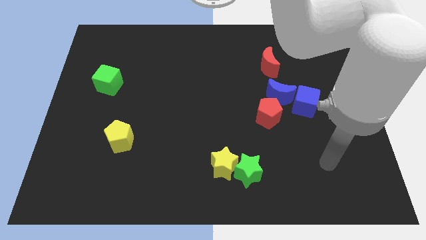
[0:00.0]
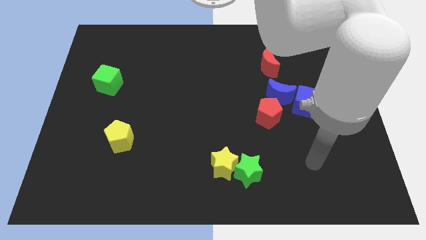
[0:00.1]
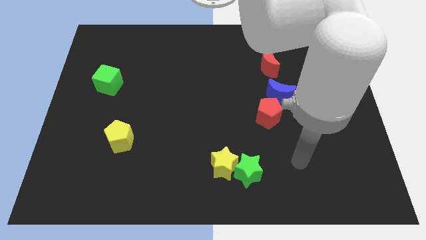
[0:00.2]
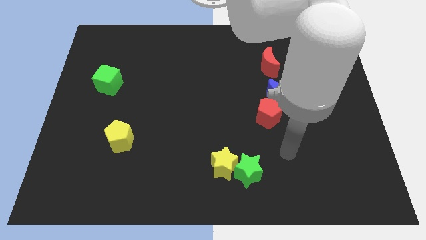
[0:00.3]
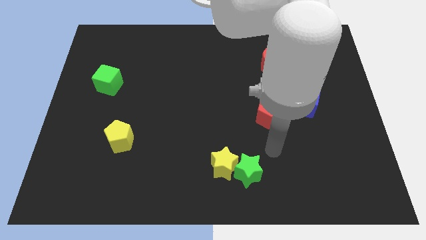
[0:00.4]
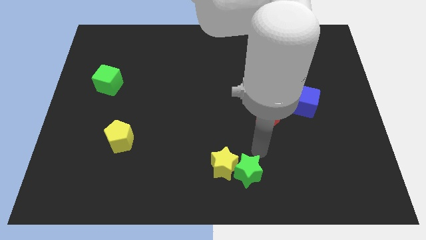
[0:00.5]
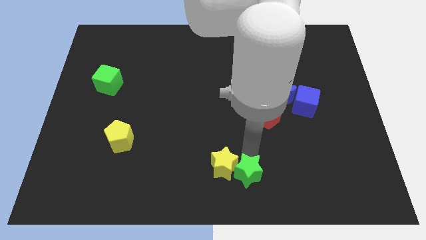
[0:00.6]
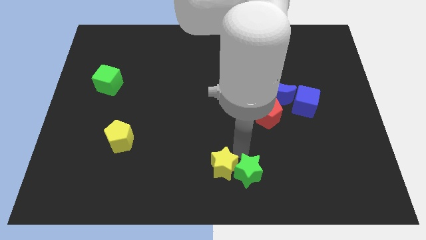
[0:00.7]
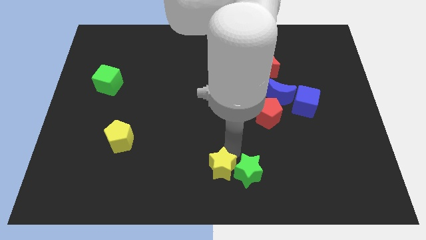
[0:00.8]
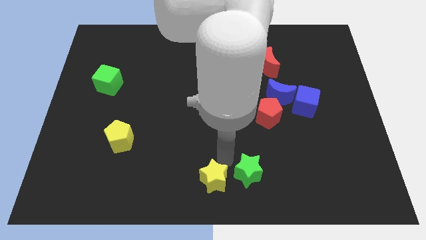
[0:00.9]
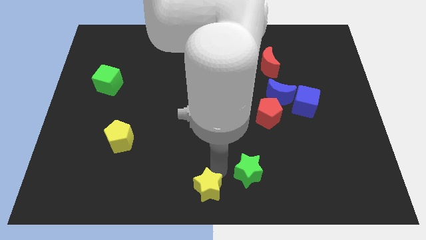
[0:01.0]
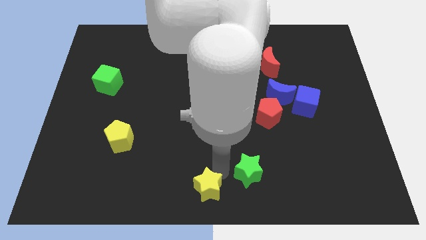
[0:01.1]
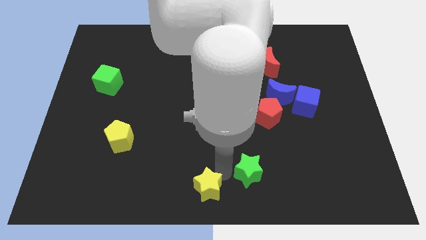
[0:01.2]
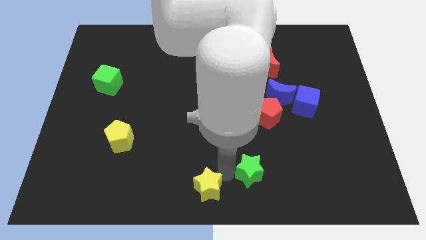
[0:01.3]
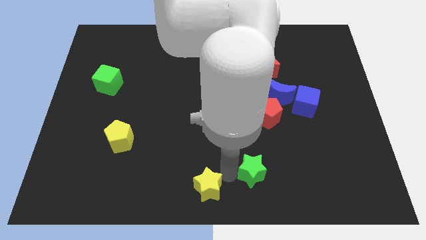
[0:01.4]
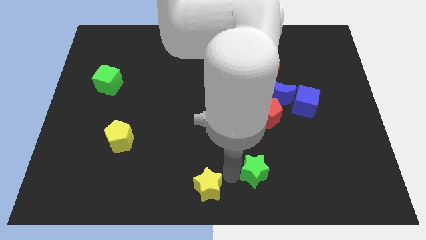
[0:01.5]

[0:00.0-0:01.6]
pull the green star apart from the yellow star

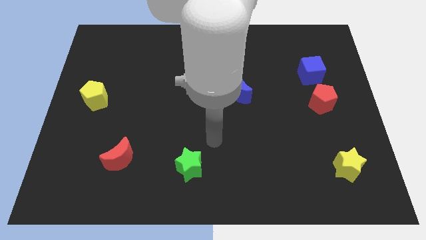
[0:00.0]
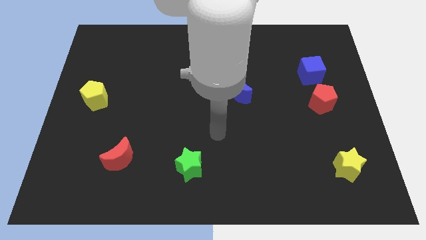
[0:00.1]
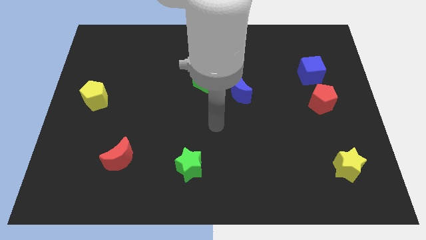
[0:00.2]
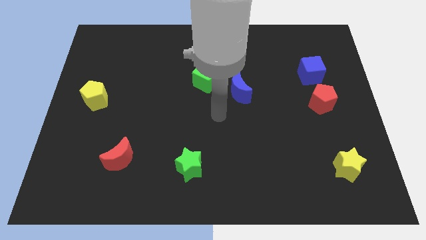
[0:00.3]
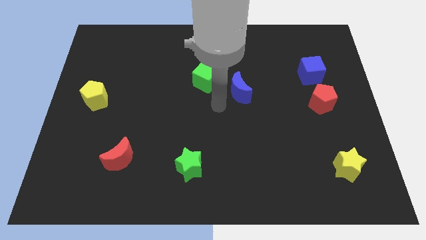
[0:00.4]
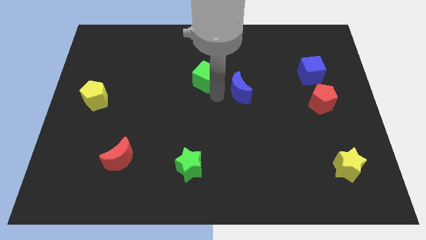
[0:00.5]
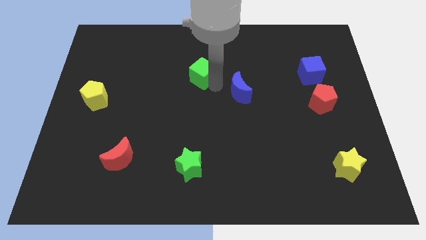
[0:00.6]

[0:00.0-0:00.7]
pull the blue moon apart from the green cube

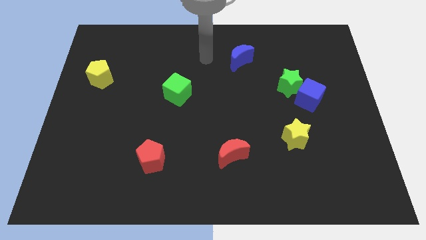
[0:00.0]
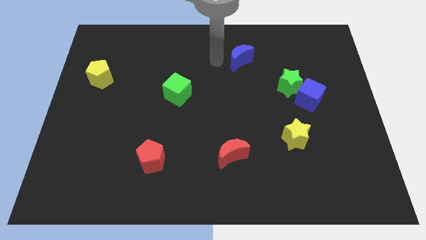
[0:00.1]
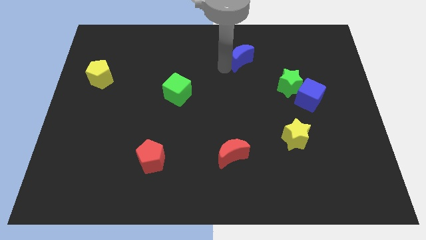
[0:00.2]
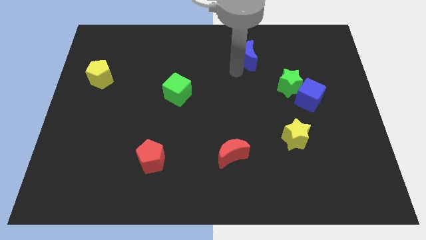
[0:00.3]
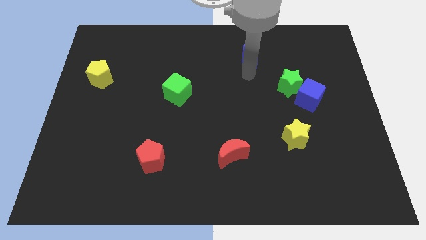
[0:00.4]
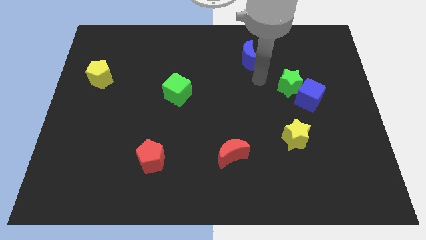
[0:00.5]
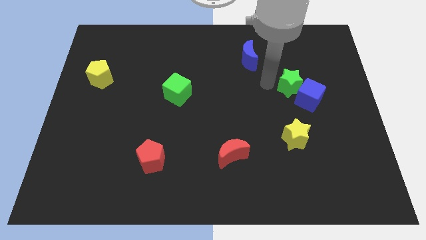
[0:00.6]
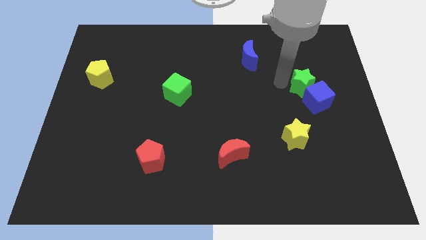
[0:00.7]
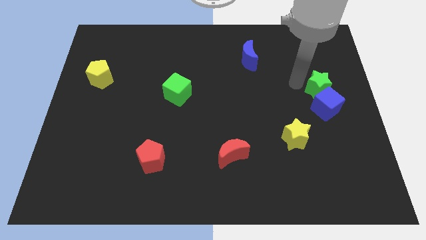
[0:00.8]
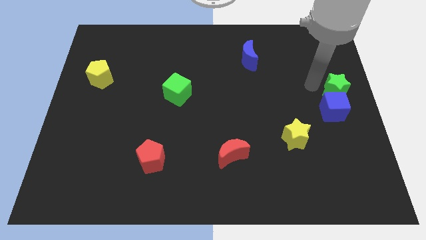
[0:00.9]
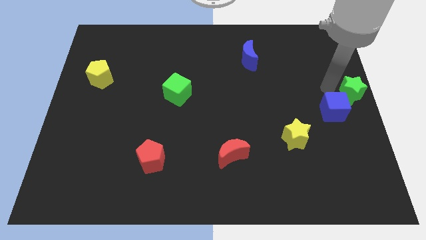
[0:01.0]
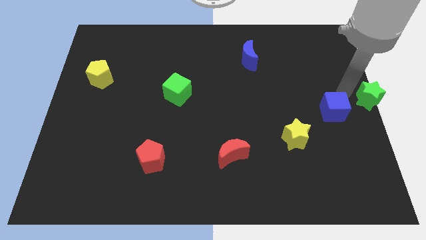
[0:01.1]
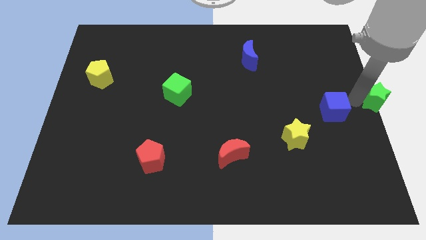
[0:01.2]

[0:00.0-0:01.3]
pull the blue cube apart from the green star

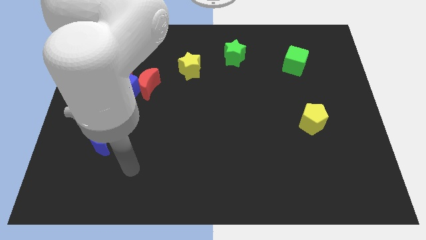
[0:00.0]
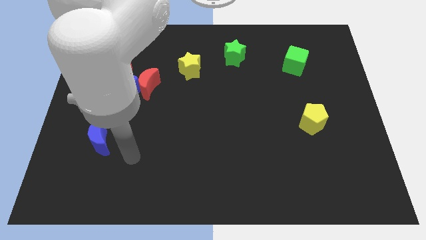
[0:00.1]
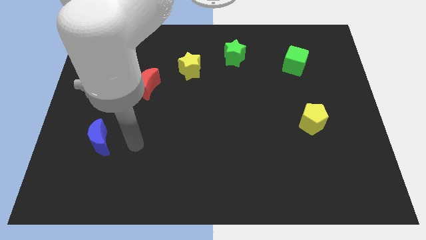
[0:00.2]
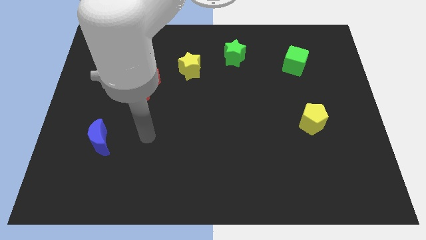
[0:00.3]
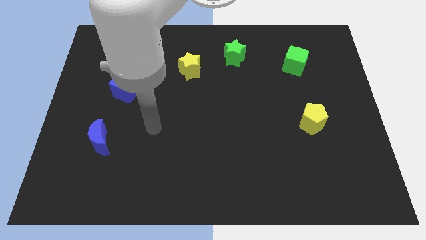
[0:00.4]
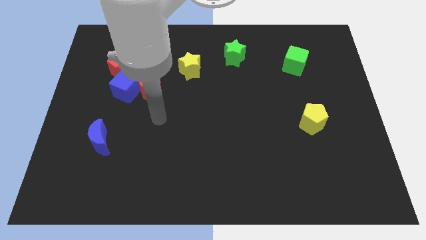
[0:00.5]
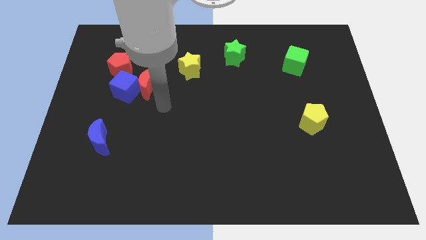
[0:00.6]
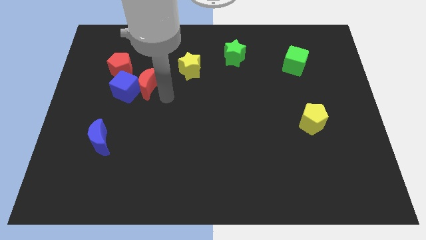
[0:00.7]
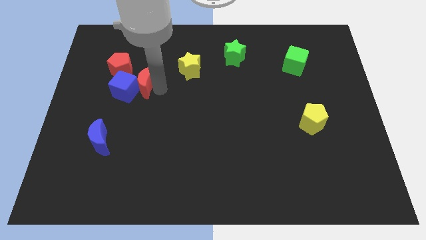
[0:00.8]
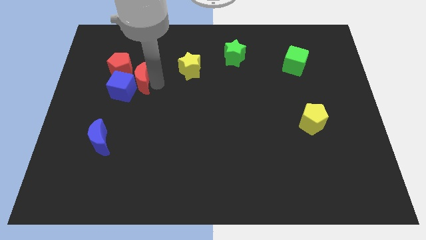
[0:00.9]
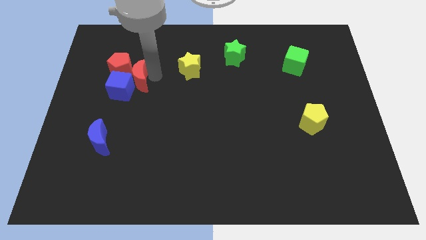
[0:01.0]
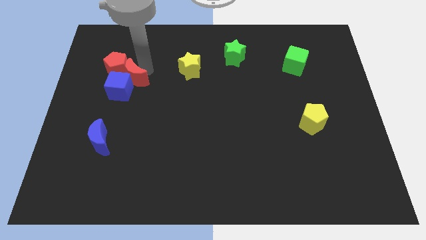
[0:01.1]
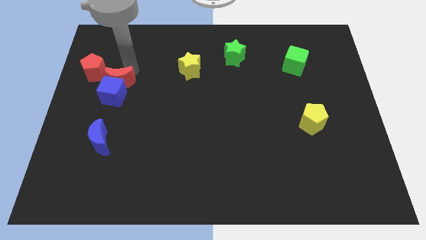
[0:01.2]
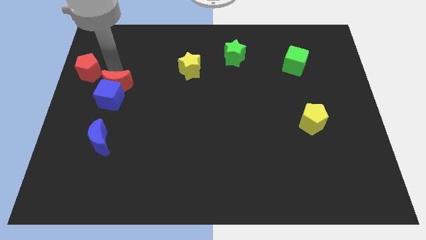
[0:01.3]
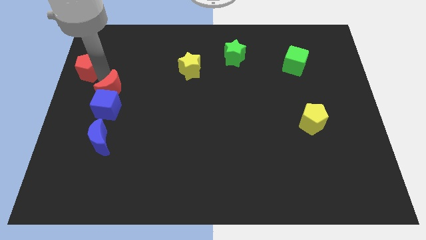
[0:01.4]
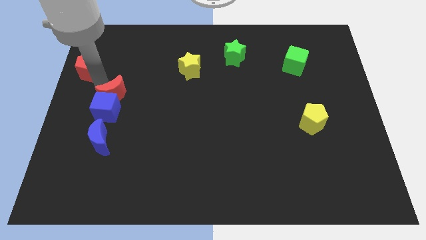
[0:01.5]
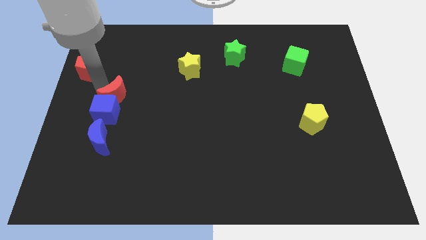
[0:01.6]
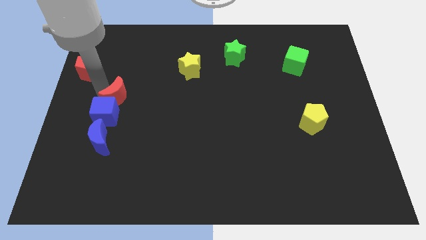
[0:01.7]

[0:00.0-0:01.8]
pull the blue cube apart from the red moon and red pentagon

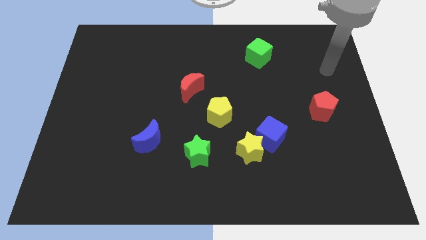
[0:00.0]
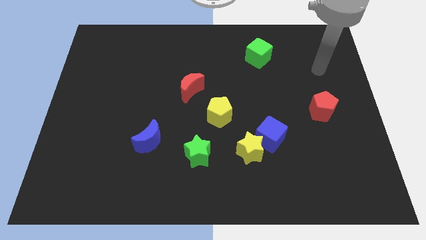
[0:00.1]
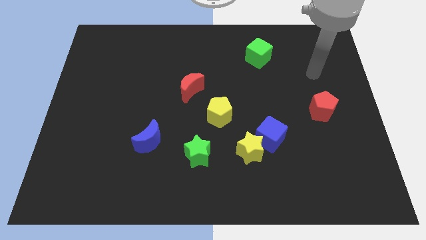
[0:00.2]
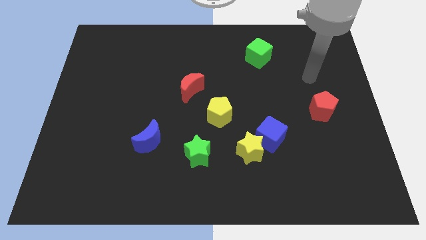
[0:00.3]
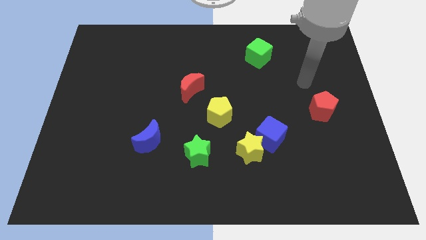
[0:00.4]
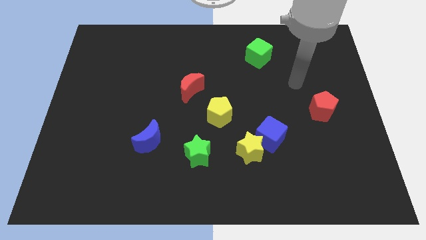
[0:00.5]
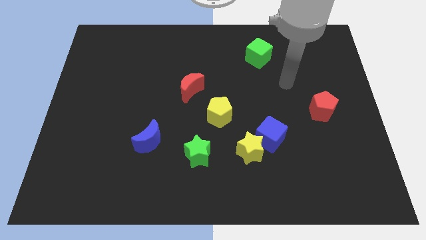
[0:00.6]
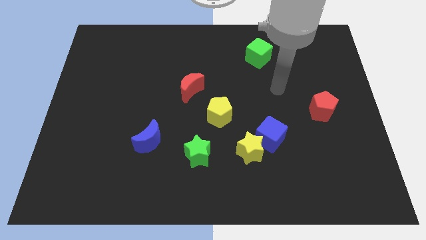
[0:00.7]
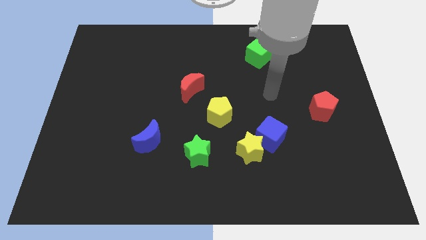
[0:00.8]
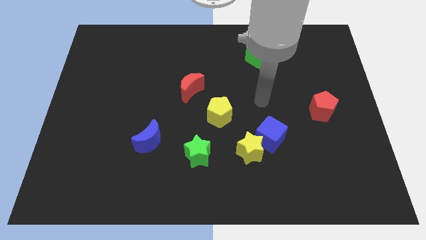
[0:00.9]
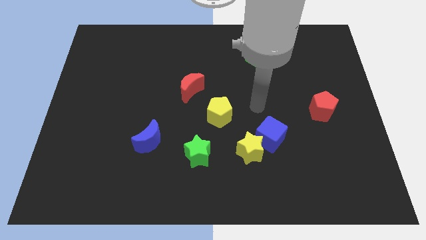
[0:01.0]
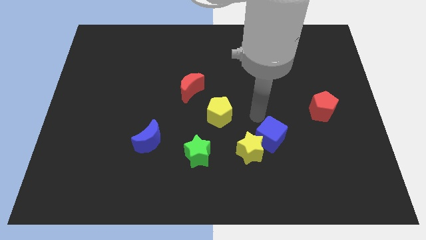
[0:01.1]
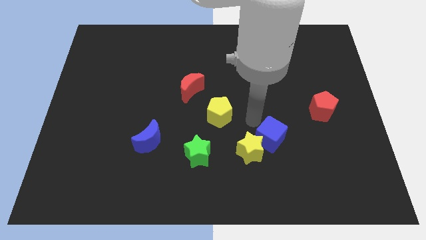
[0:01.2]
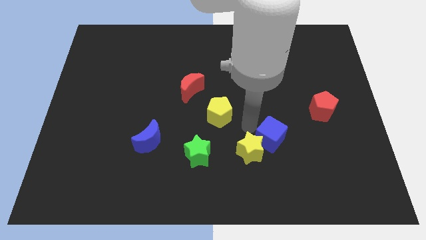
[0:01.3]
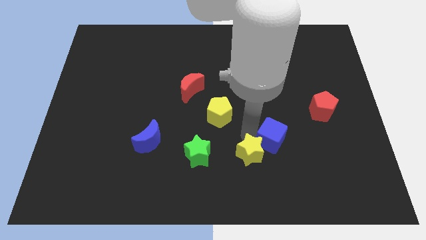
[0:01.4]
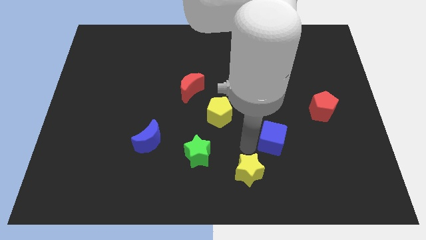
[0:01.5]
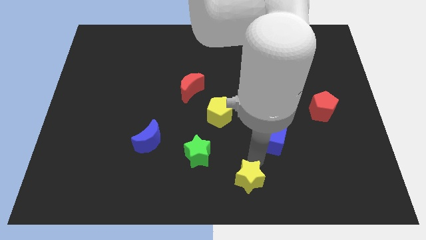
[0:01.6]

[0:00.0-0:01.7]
move the blue cube away from the yellow star

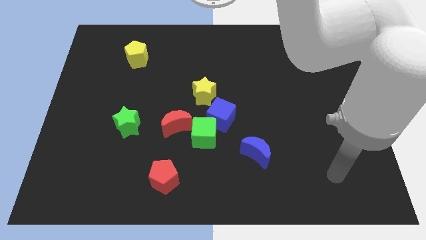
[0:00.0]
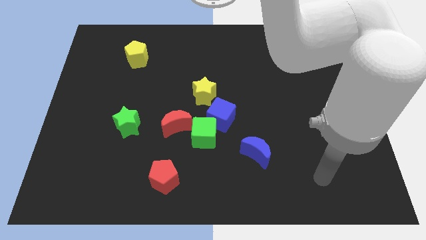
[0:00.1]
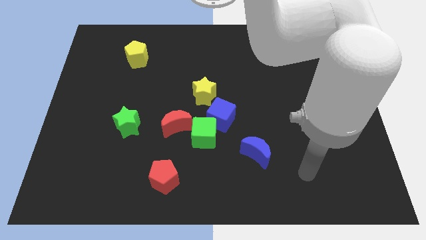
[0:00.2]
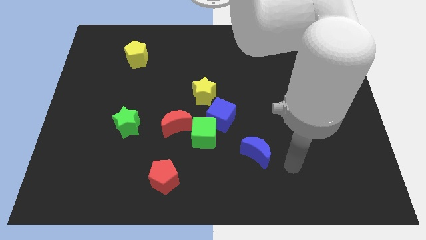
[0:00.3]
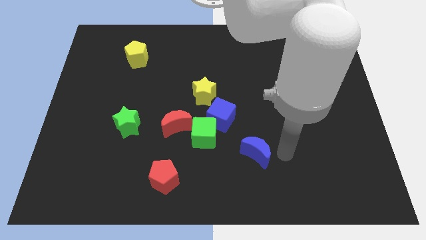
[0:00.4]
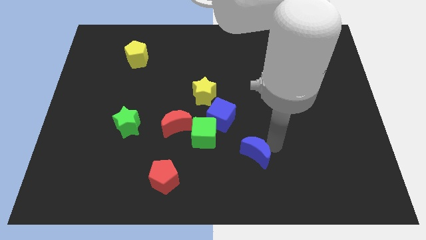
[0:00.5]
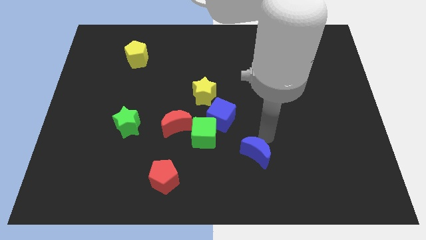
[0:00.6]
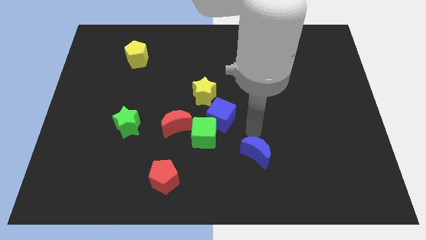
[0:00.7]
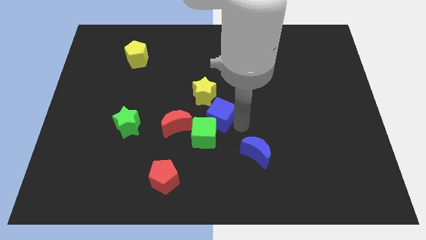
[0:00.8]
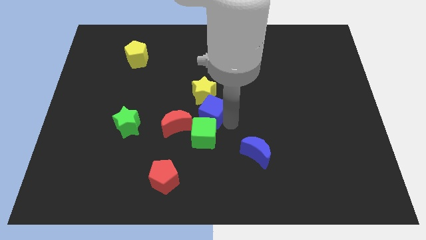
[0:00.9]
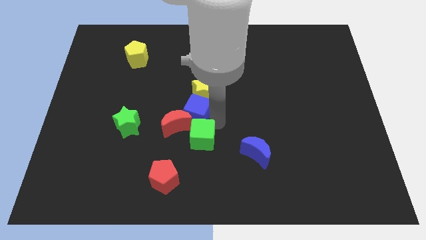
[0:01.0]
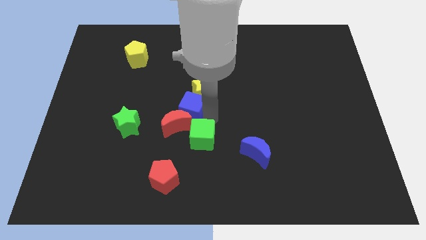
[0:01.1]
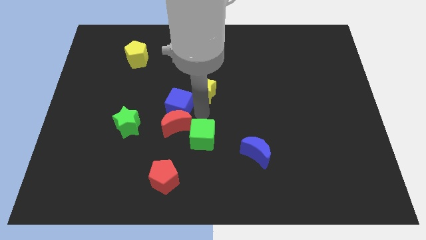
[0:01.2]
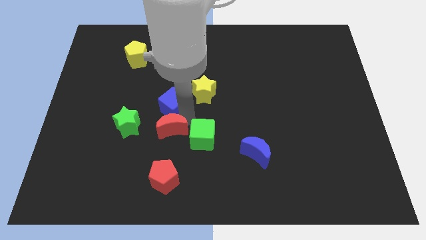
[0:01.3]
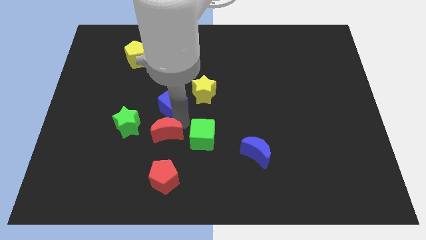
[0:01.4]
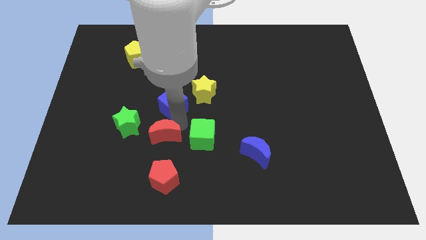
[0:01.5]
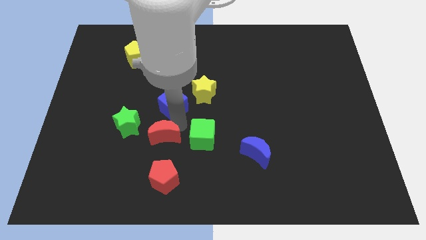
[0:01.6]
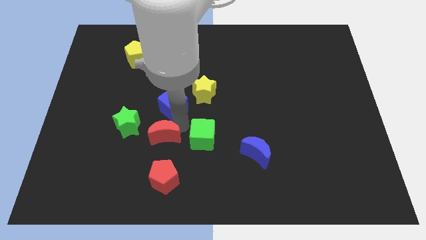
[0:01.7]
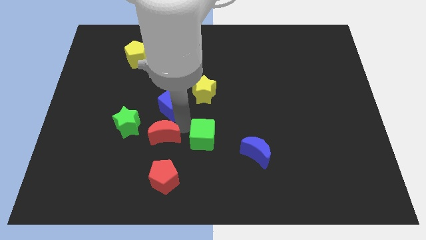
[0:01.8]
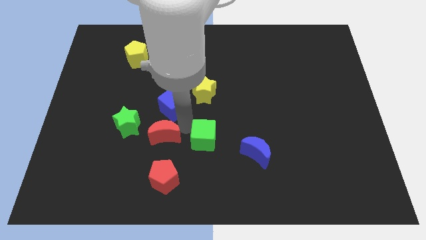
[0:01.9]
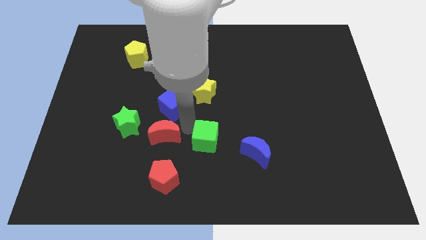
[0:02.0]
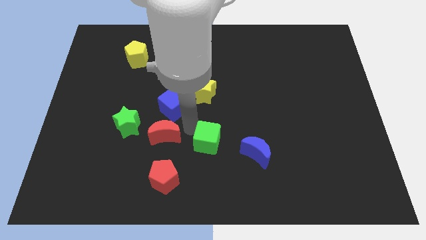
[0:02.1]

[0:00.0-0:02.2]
move the green cube away from the blue cube and red moon
